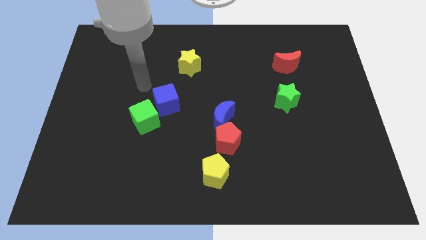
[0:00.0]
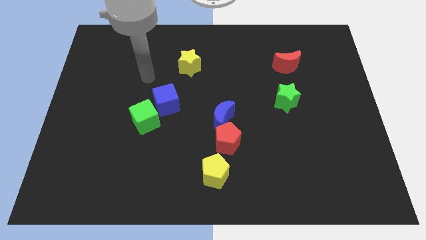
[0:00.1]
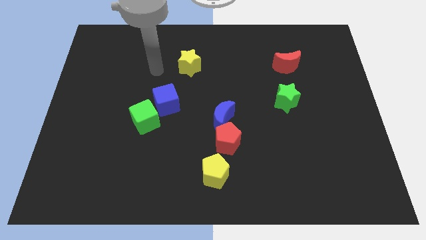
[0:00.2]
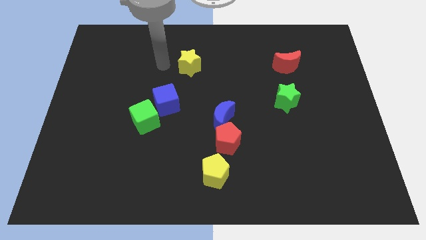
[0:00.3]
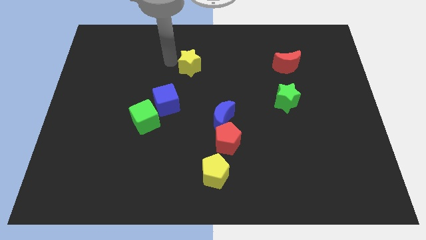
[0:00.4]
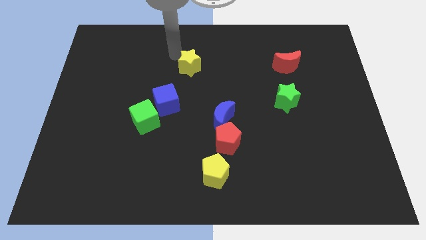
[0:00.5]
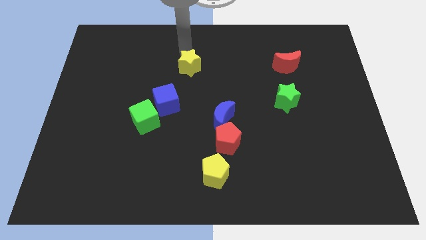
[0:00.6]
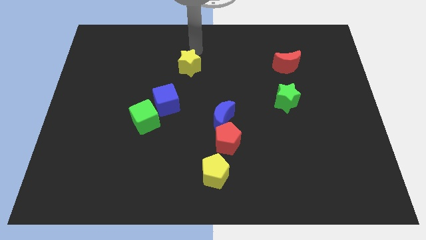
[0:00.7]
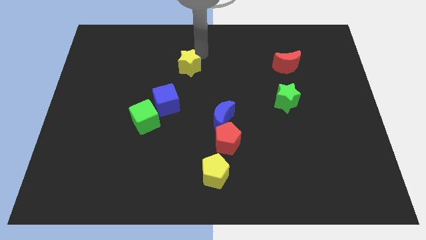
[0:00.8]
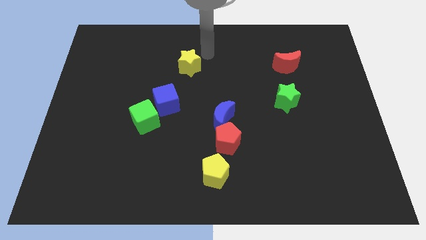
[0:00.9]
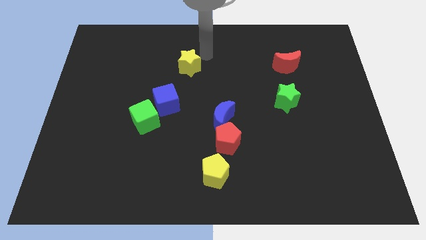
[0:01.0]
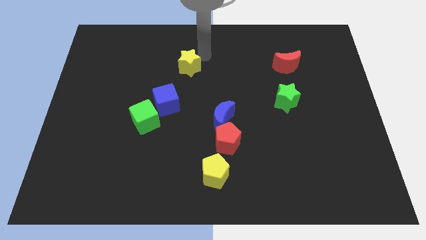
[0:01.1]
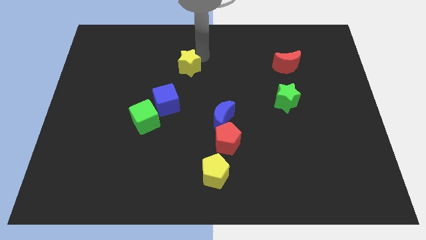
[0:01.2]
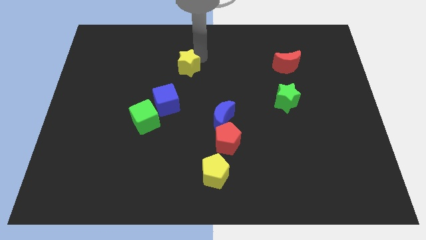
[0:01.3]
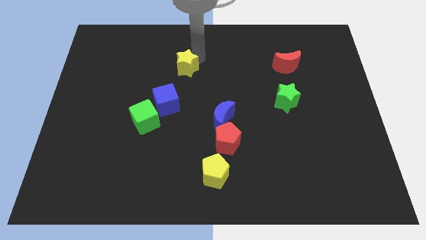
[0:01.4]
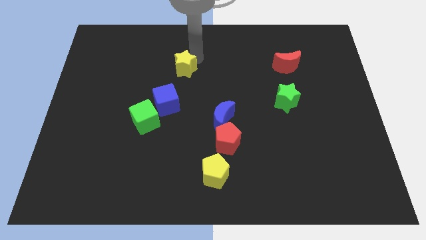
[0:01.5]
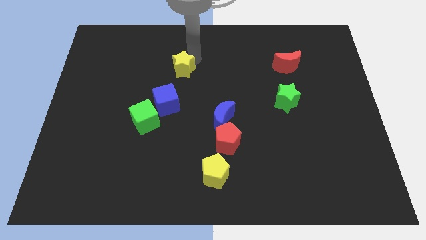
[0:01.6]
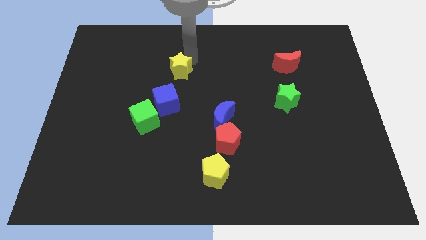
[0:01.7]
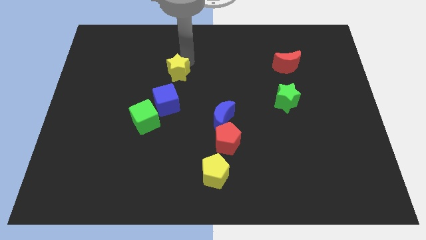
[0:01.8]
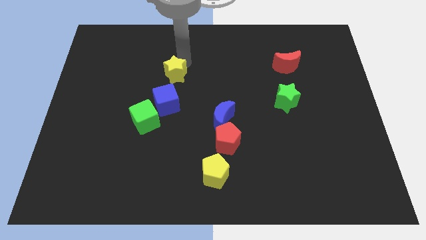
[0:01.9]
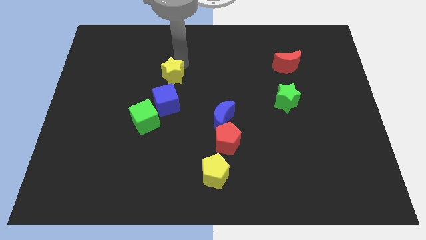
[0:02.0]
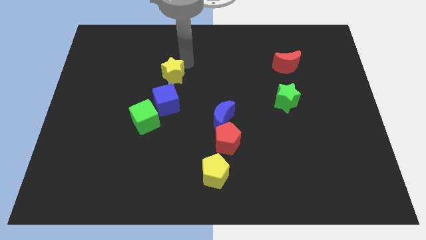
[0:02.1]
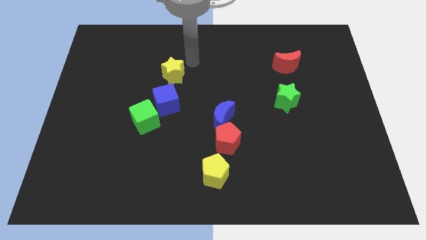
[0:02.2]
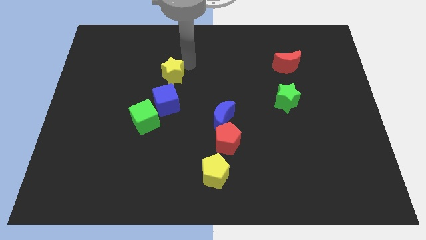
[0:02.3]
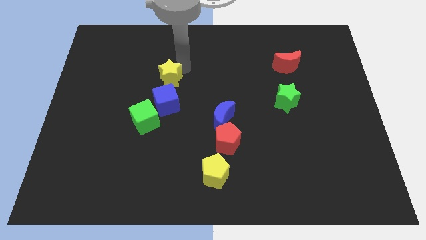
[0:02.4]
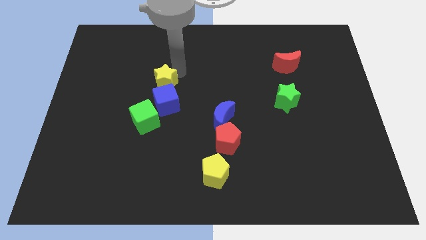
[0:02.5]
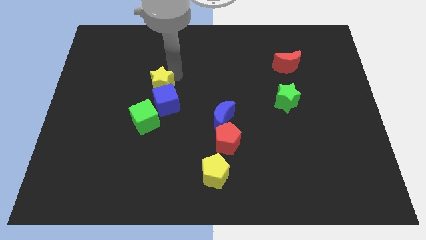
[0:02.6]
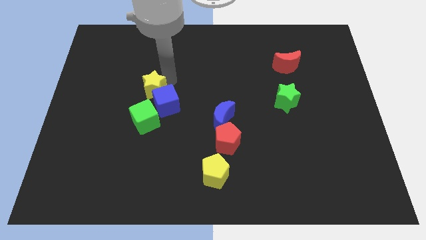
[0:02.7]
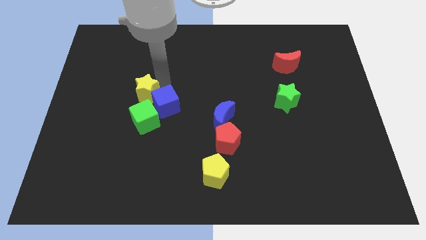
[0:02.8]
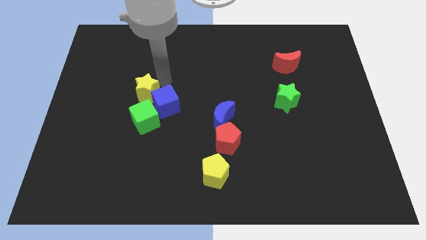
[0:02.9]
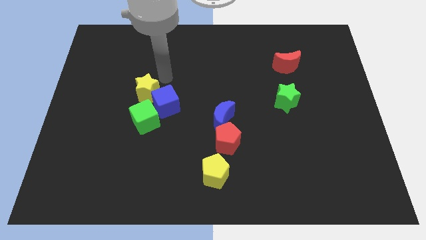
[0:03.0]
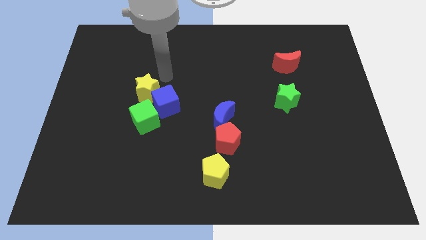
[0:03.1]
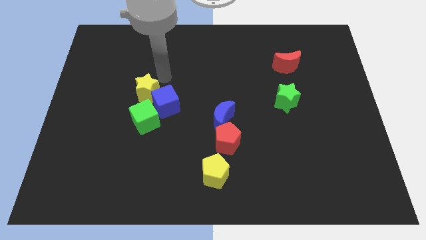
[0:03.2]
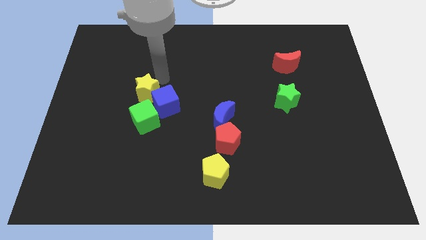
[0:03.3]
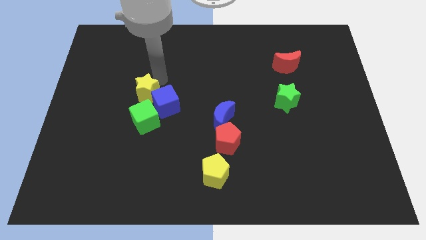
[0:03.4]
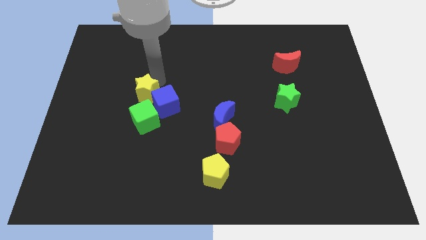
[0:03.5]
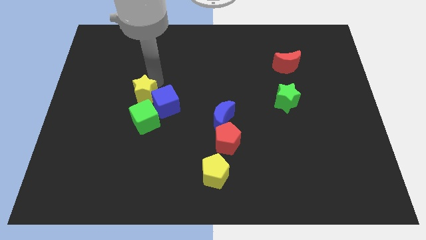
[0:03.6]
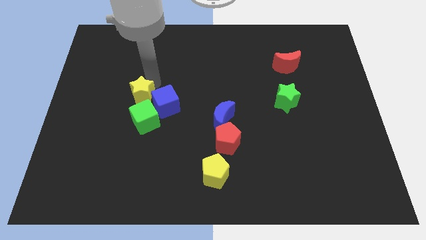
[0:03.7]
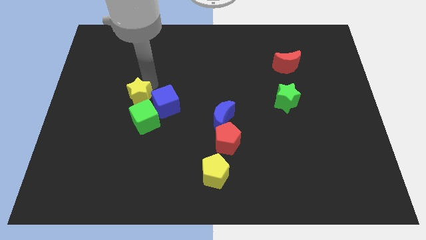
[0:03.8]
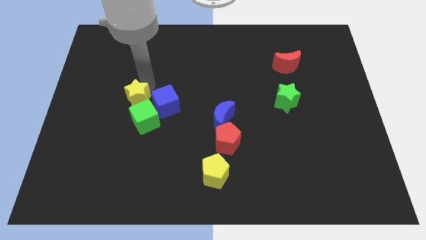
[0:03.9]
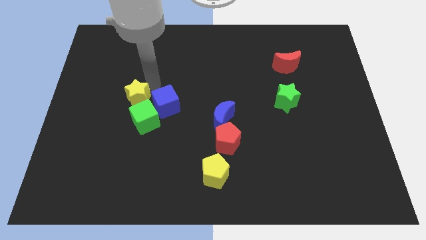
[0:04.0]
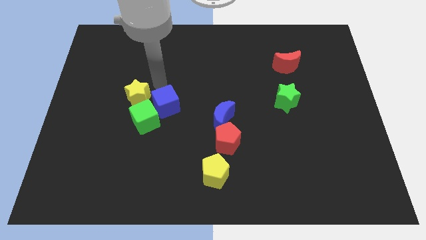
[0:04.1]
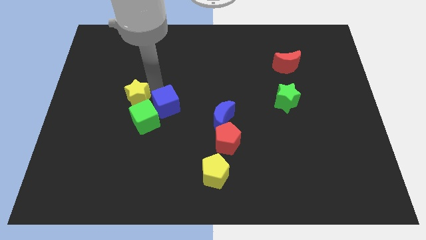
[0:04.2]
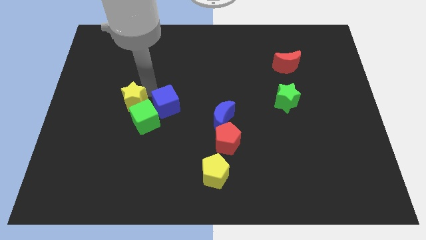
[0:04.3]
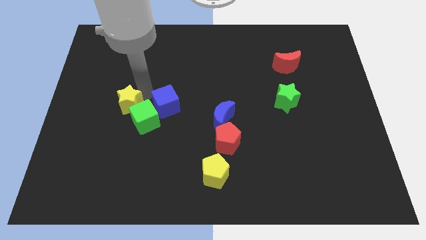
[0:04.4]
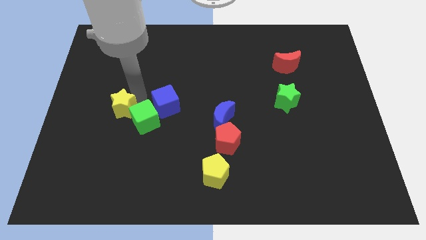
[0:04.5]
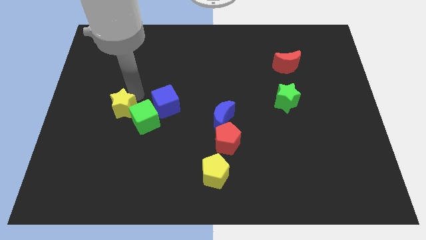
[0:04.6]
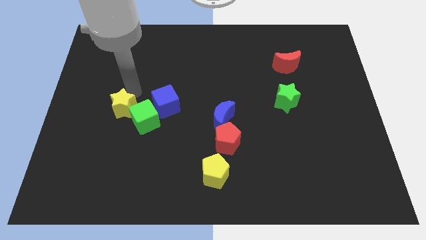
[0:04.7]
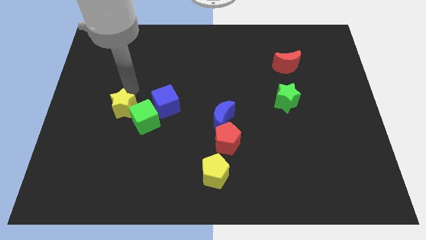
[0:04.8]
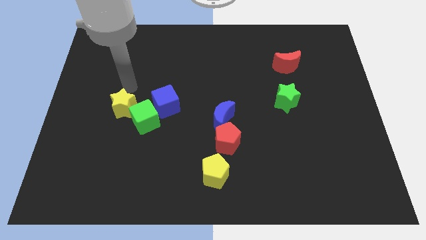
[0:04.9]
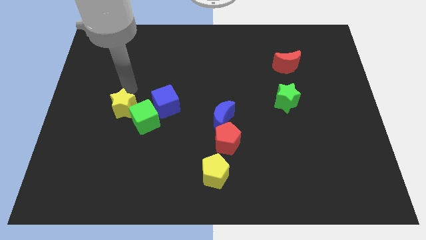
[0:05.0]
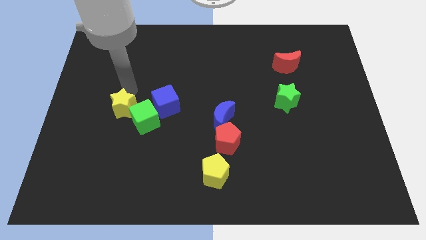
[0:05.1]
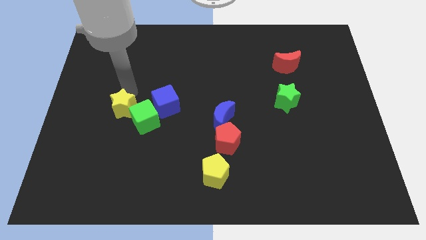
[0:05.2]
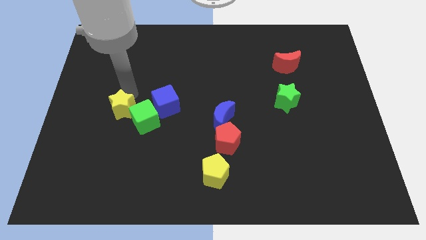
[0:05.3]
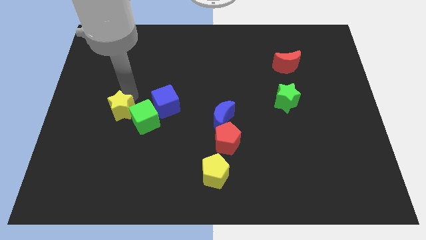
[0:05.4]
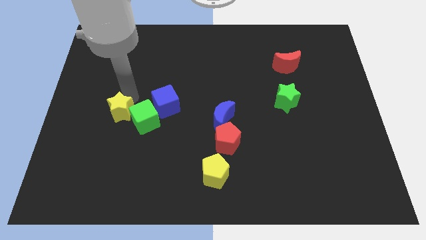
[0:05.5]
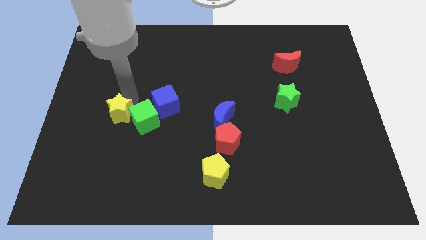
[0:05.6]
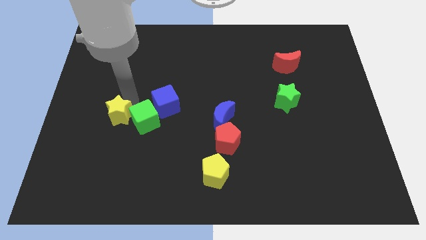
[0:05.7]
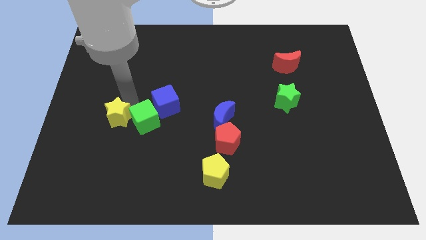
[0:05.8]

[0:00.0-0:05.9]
push the yellow star to the bottom left side of the green cube

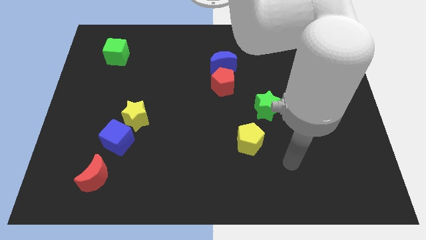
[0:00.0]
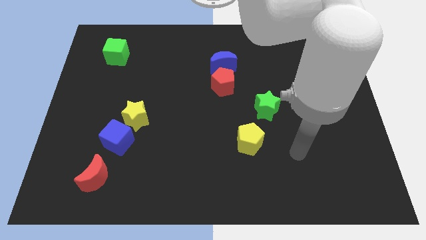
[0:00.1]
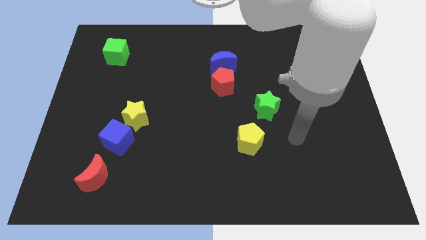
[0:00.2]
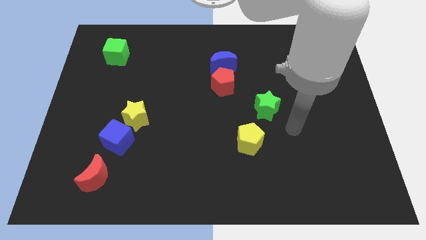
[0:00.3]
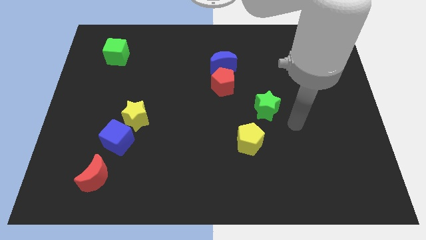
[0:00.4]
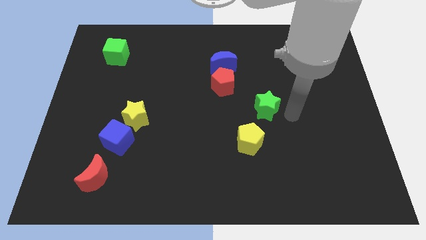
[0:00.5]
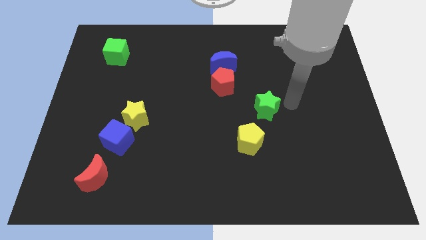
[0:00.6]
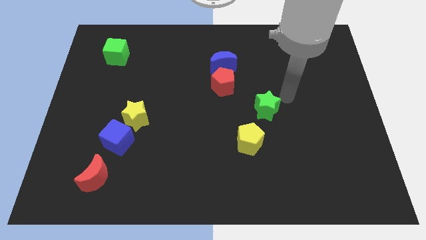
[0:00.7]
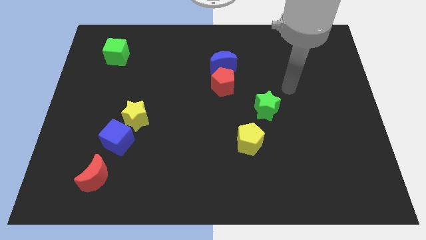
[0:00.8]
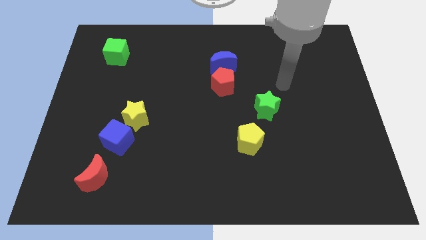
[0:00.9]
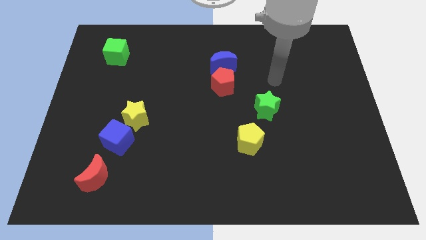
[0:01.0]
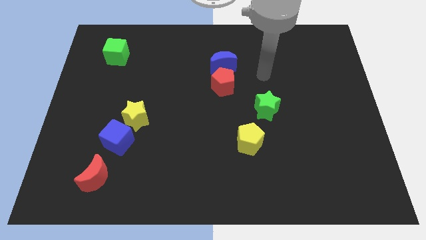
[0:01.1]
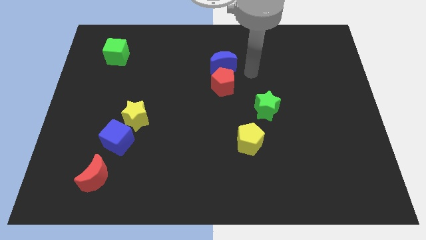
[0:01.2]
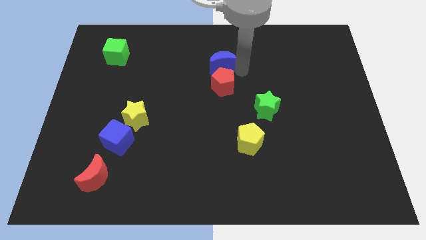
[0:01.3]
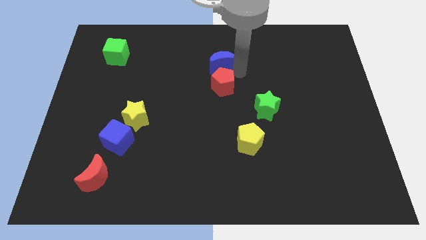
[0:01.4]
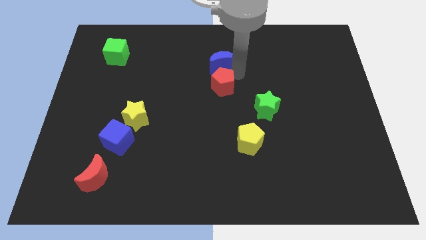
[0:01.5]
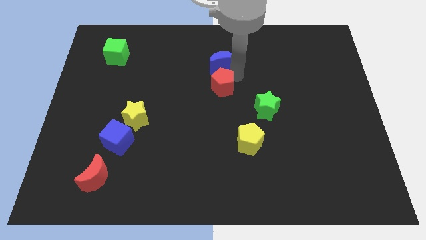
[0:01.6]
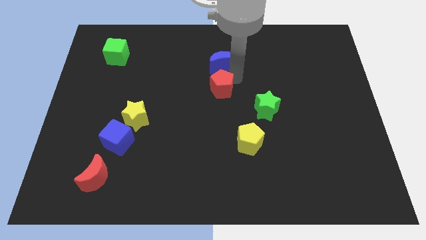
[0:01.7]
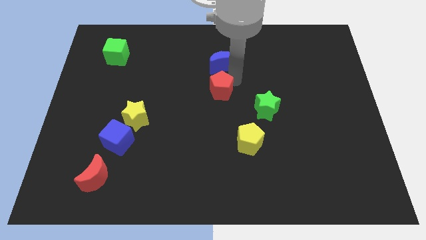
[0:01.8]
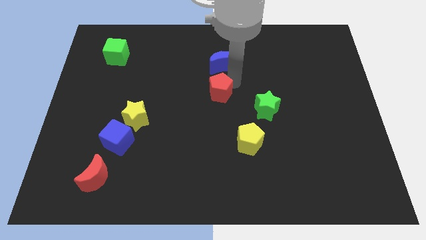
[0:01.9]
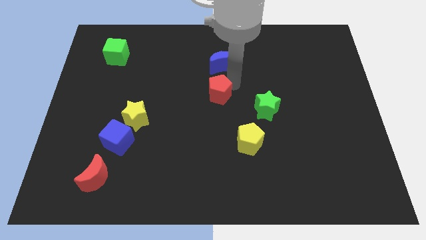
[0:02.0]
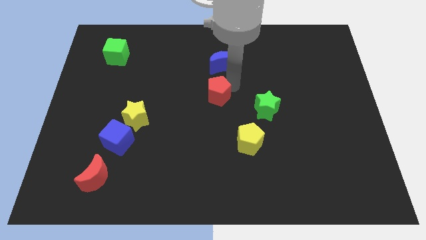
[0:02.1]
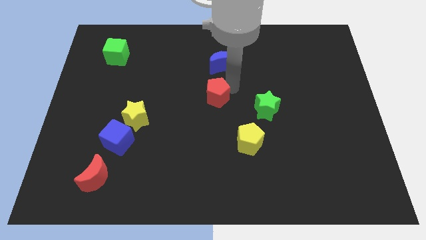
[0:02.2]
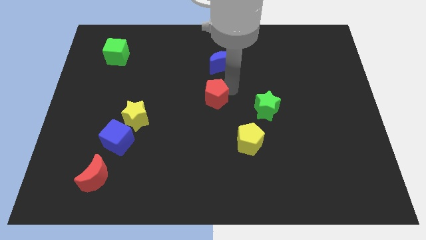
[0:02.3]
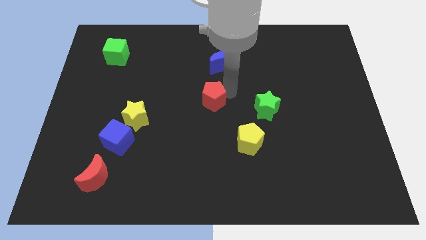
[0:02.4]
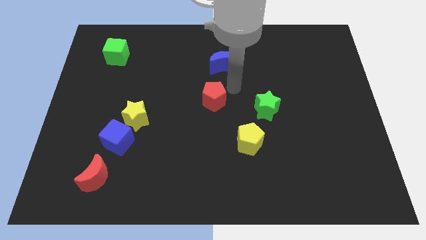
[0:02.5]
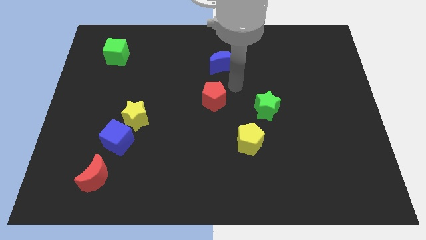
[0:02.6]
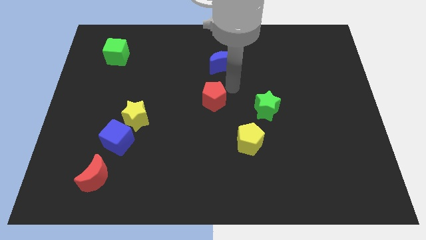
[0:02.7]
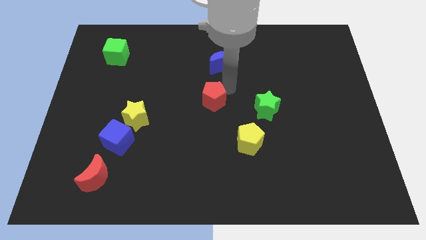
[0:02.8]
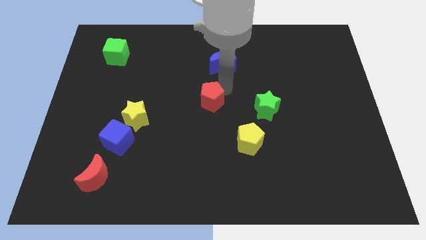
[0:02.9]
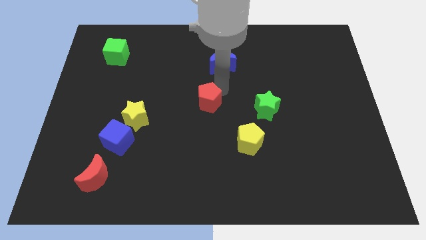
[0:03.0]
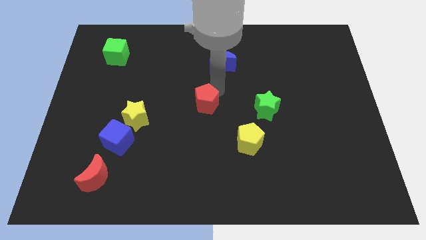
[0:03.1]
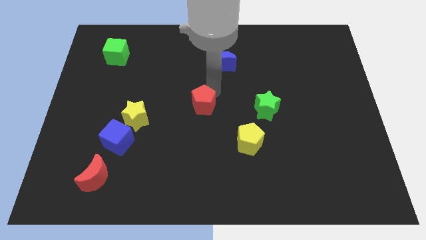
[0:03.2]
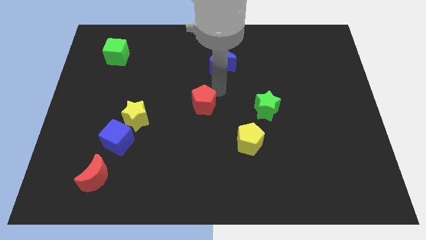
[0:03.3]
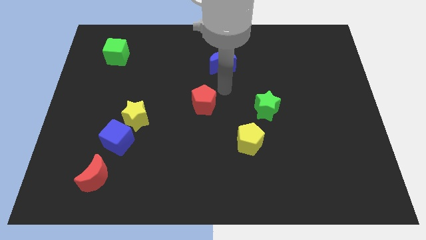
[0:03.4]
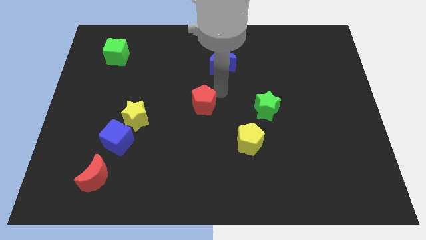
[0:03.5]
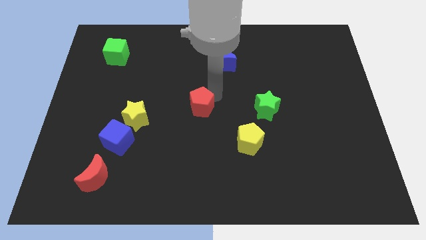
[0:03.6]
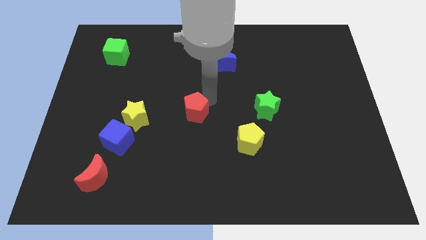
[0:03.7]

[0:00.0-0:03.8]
push the red pentagon just right of the yellow star
